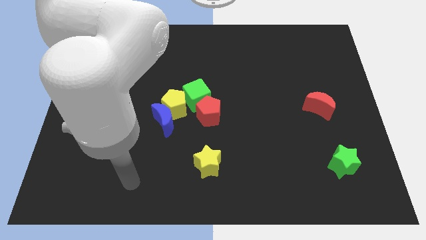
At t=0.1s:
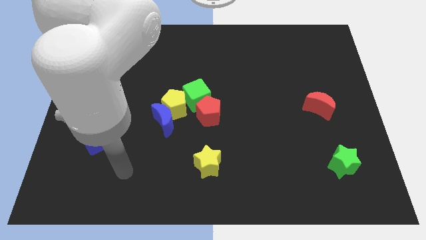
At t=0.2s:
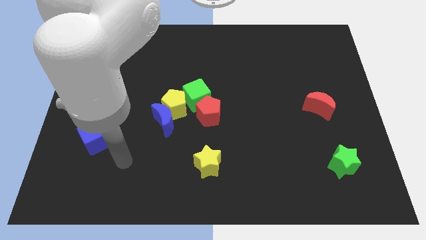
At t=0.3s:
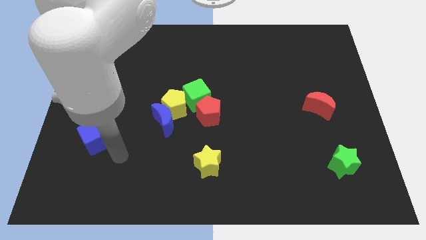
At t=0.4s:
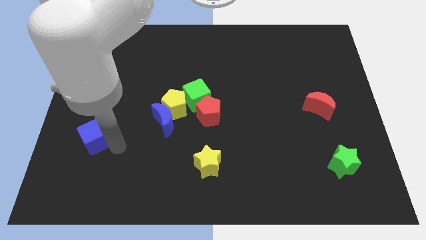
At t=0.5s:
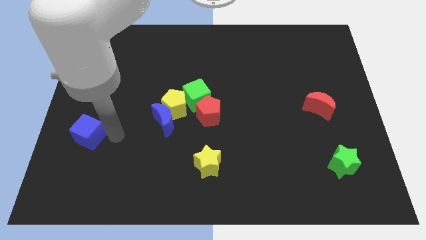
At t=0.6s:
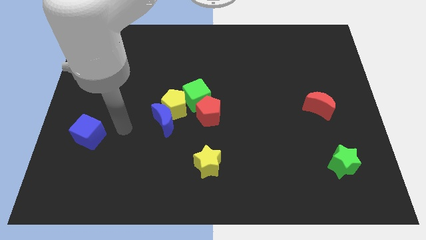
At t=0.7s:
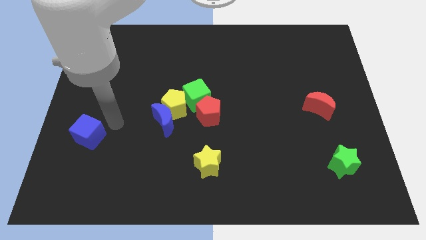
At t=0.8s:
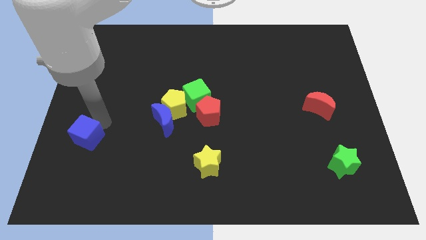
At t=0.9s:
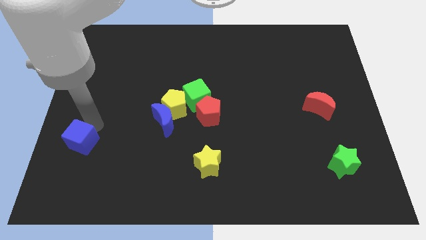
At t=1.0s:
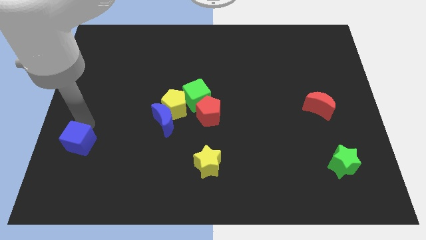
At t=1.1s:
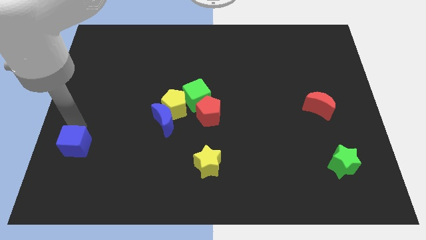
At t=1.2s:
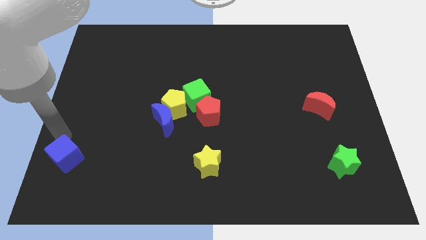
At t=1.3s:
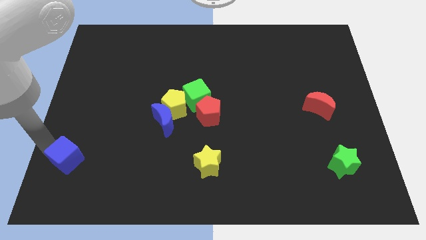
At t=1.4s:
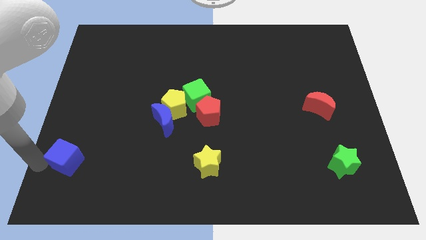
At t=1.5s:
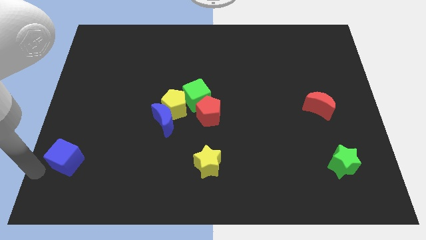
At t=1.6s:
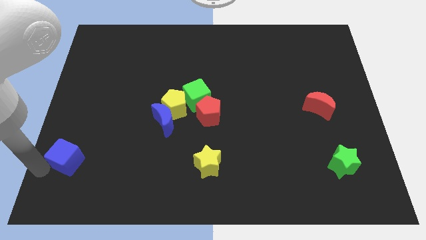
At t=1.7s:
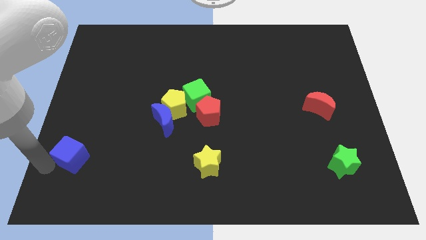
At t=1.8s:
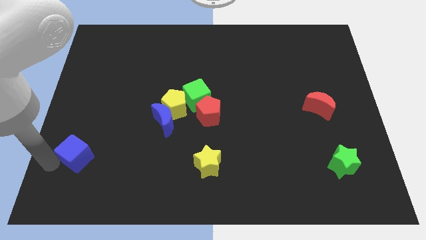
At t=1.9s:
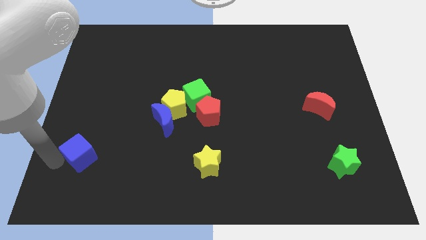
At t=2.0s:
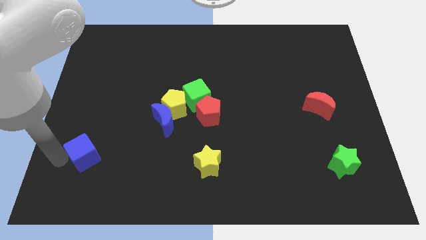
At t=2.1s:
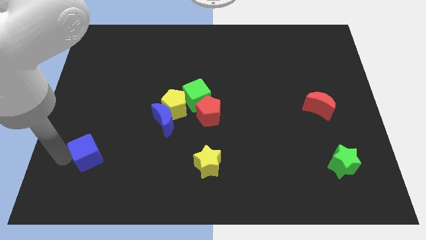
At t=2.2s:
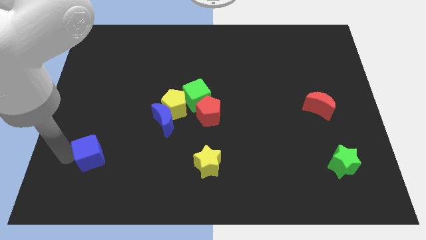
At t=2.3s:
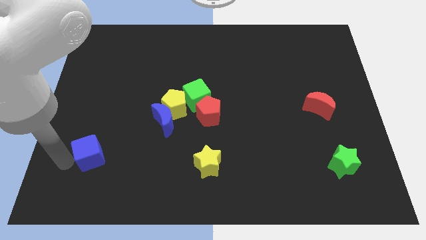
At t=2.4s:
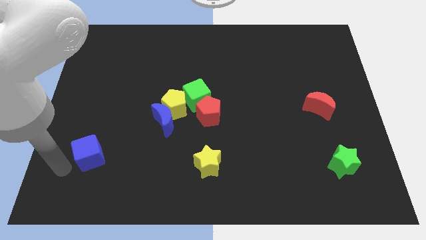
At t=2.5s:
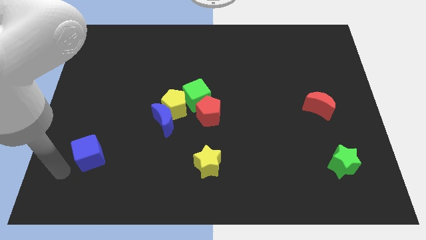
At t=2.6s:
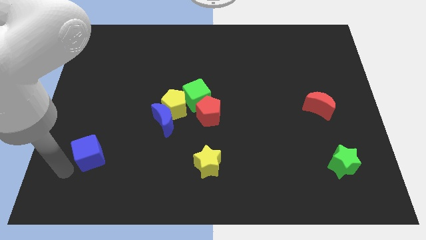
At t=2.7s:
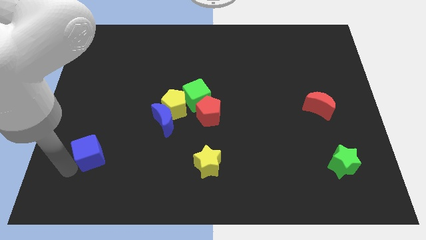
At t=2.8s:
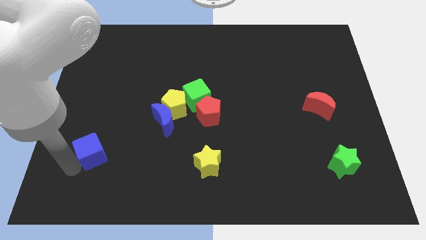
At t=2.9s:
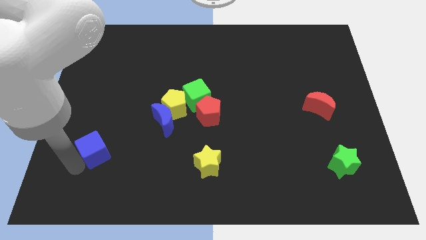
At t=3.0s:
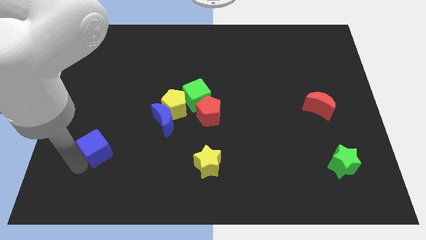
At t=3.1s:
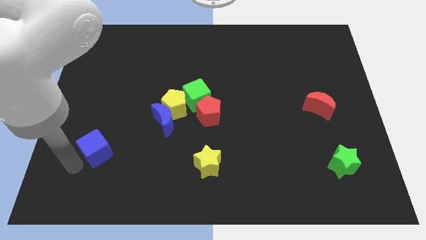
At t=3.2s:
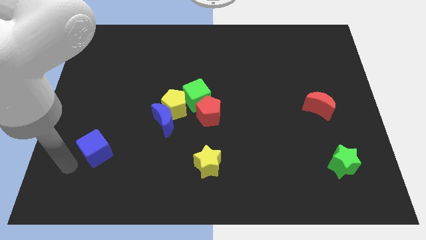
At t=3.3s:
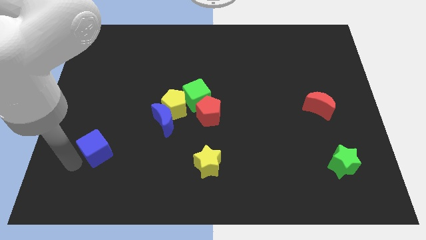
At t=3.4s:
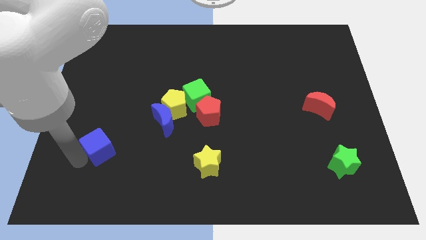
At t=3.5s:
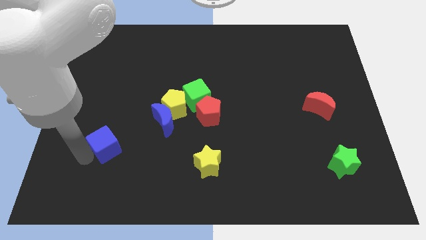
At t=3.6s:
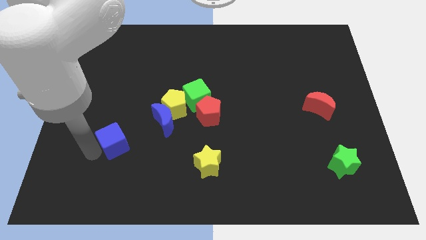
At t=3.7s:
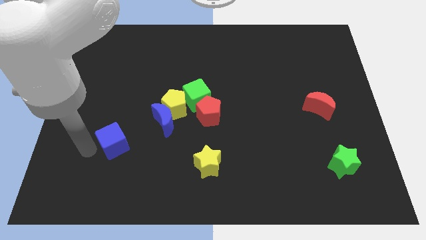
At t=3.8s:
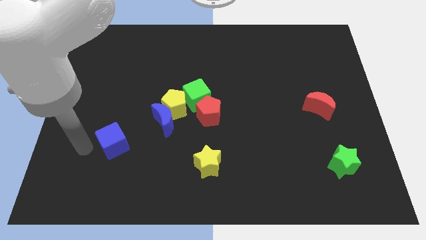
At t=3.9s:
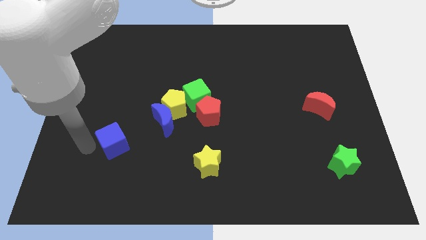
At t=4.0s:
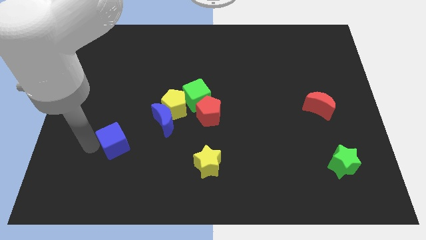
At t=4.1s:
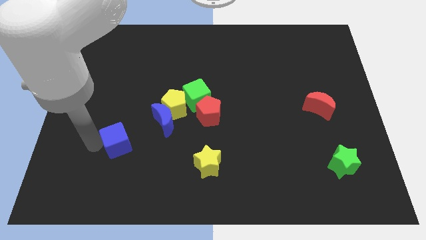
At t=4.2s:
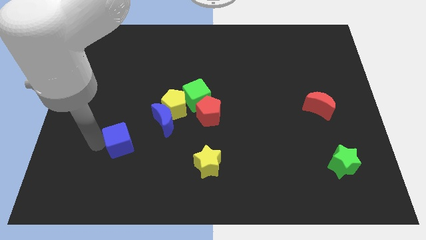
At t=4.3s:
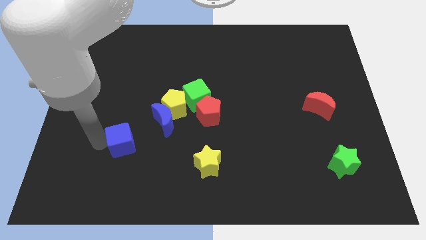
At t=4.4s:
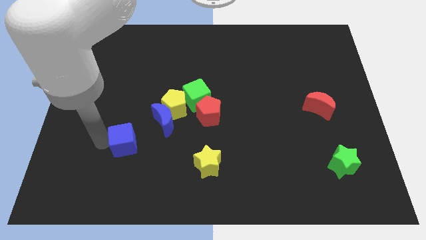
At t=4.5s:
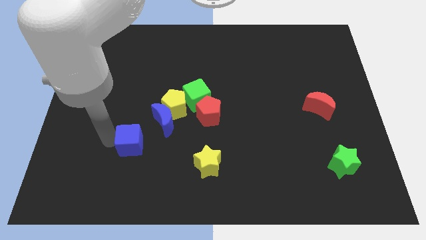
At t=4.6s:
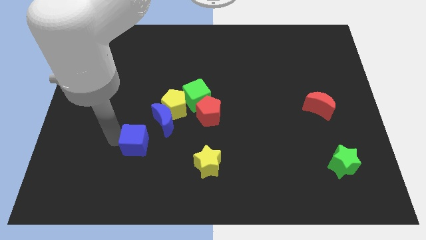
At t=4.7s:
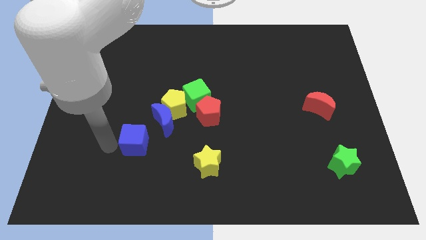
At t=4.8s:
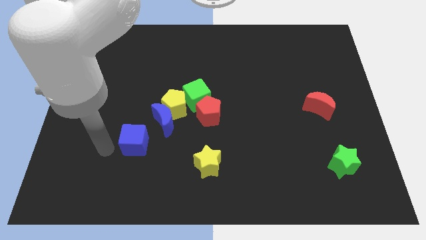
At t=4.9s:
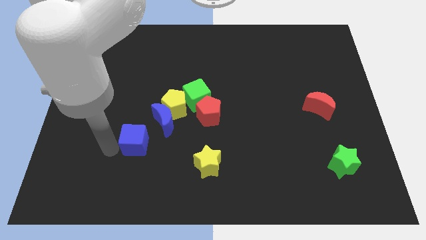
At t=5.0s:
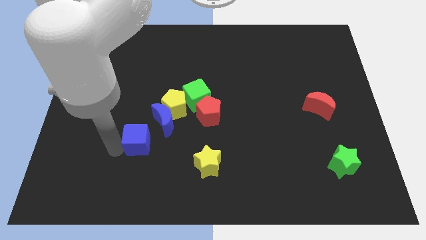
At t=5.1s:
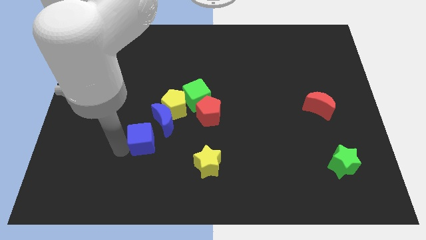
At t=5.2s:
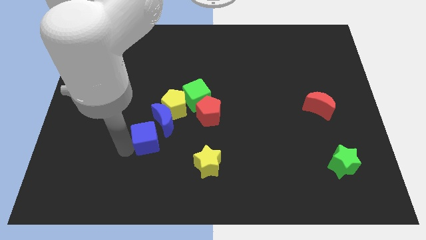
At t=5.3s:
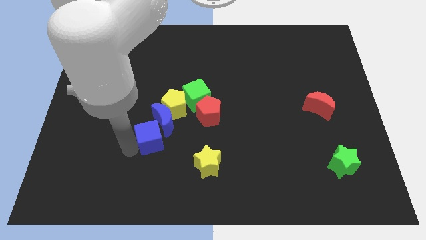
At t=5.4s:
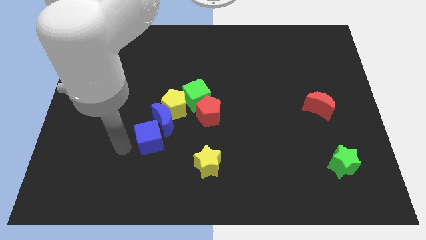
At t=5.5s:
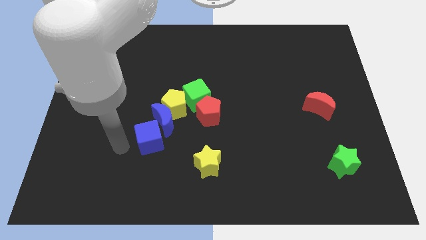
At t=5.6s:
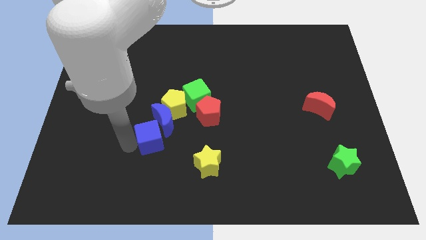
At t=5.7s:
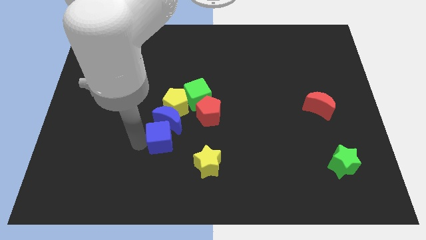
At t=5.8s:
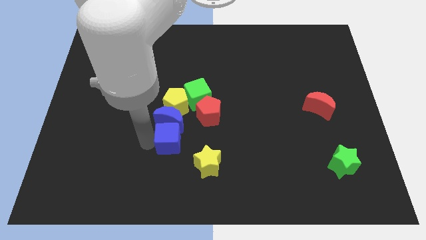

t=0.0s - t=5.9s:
move the blue cube to the bottom left side of the red pentagon
